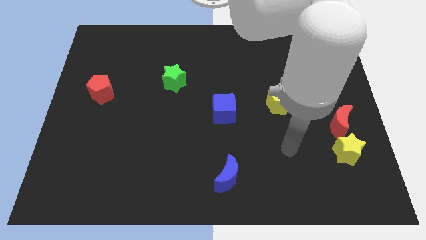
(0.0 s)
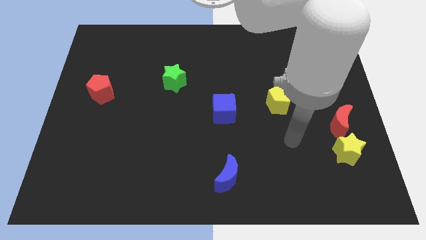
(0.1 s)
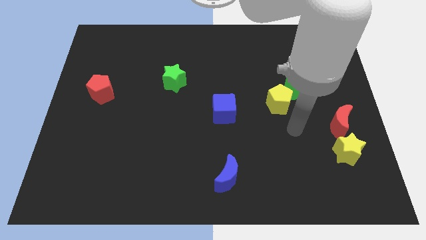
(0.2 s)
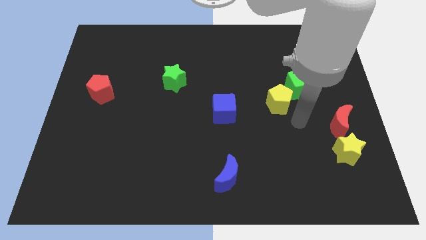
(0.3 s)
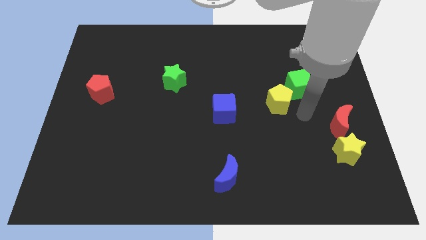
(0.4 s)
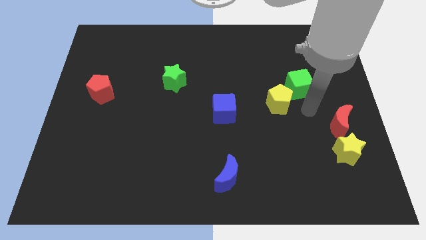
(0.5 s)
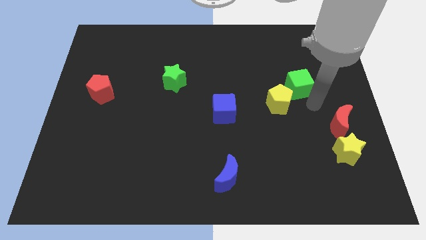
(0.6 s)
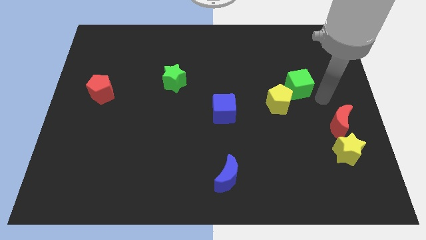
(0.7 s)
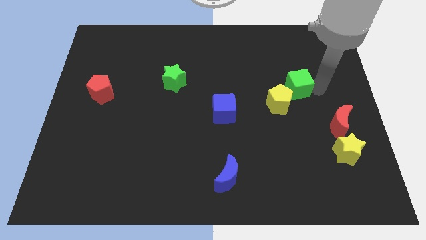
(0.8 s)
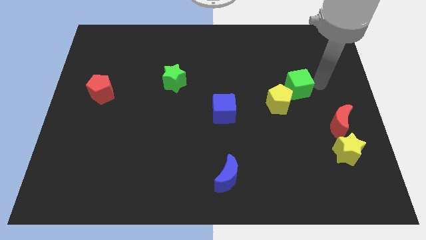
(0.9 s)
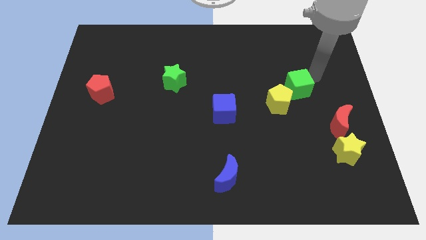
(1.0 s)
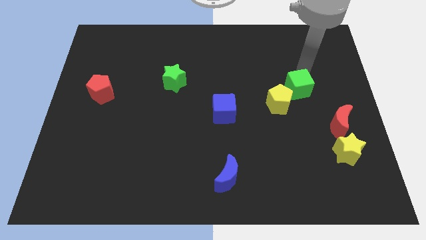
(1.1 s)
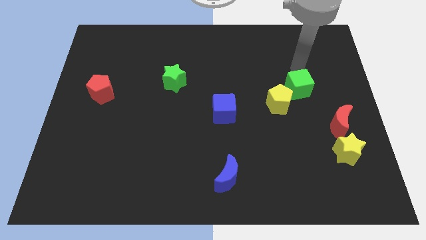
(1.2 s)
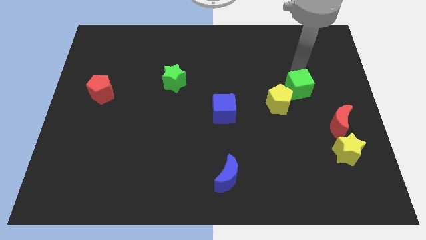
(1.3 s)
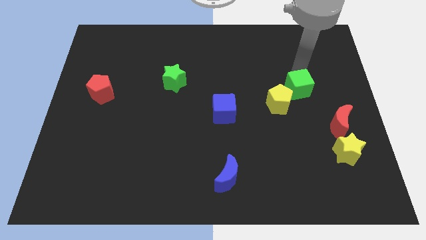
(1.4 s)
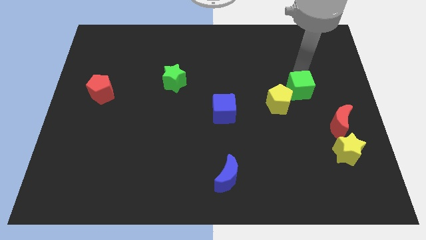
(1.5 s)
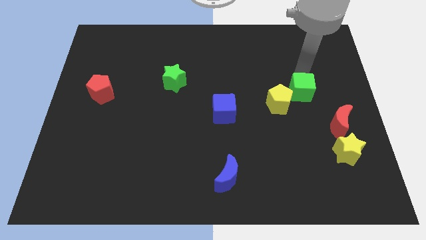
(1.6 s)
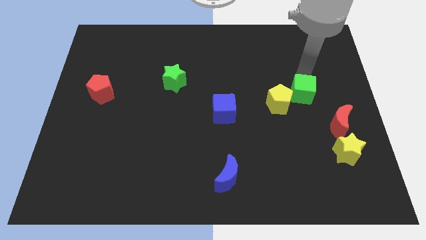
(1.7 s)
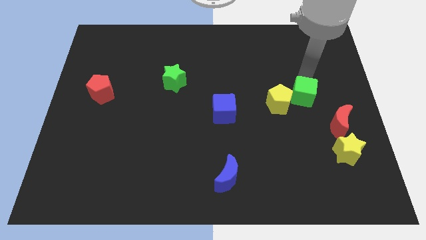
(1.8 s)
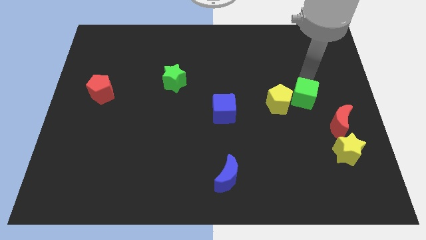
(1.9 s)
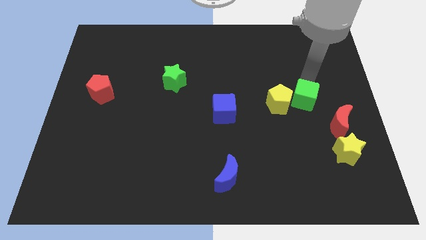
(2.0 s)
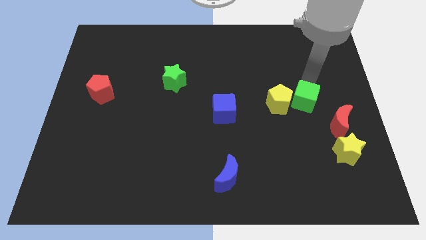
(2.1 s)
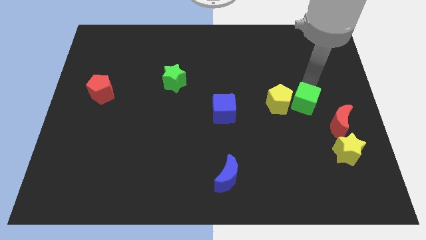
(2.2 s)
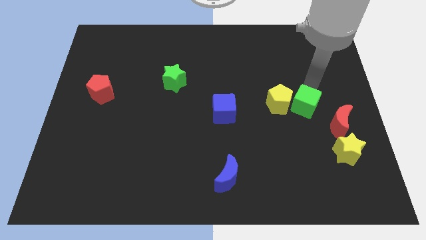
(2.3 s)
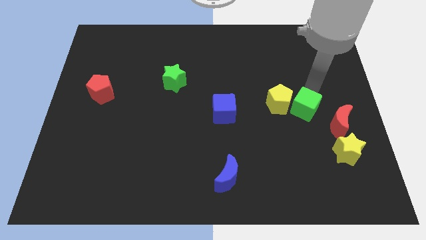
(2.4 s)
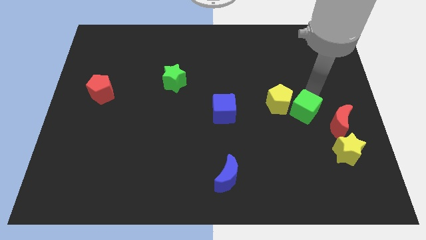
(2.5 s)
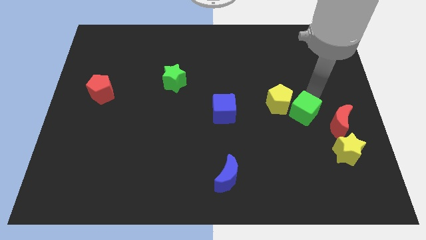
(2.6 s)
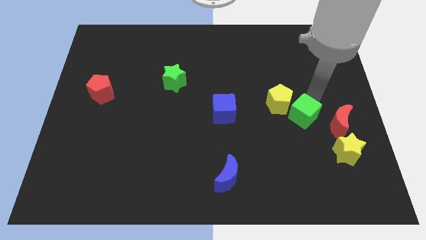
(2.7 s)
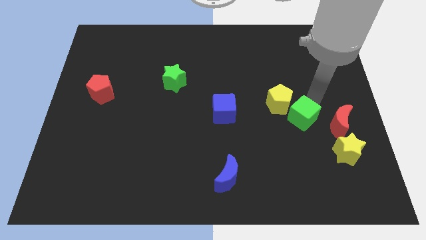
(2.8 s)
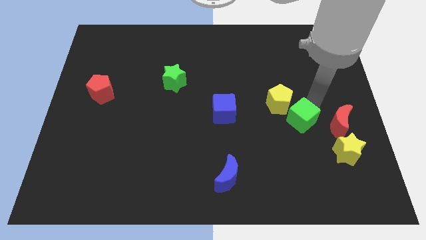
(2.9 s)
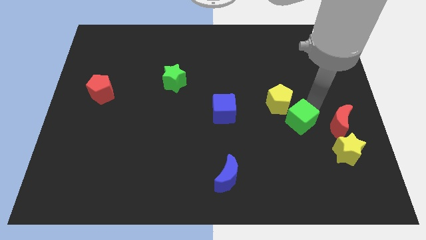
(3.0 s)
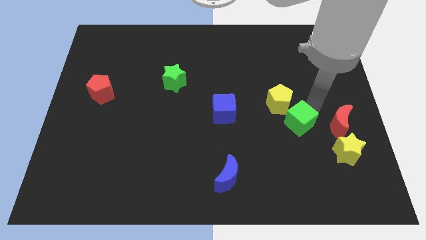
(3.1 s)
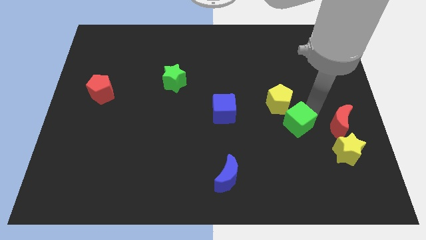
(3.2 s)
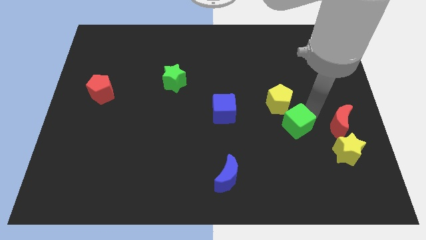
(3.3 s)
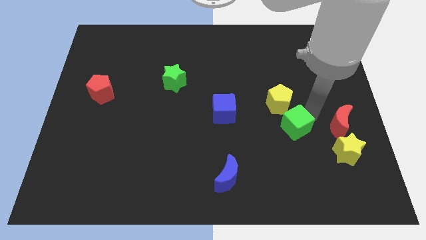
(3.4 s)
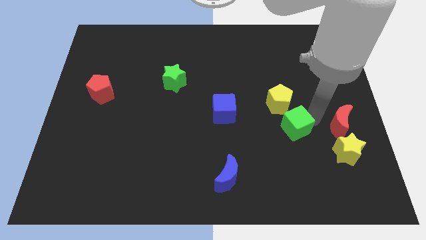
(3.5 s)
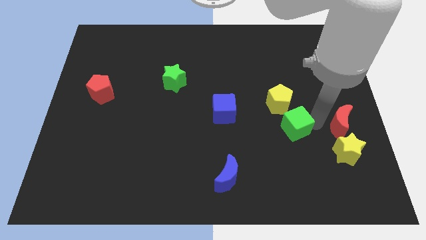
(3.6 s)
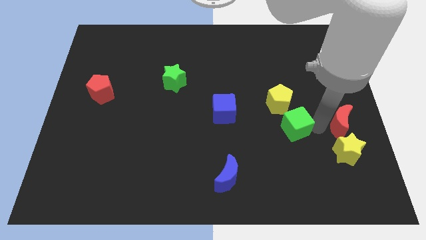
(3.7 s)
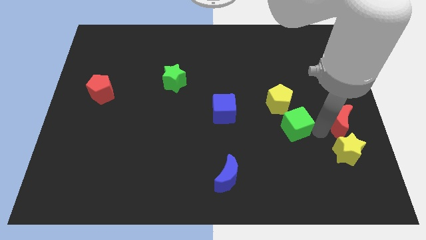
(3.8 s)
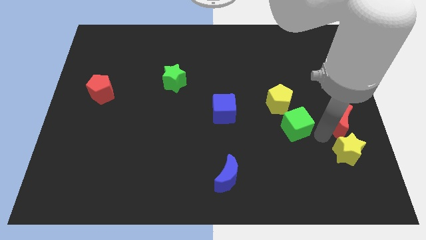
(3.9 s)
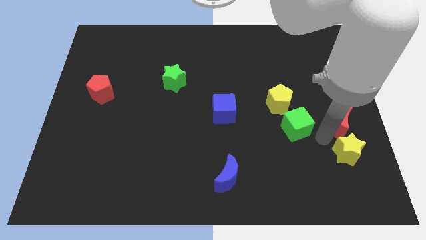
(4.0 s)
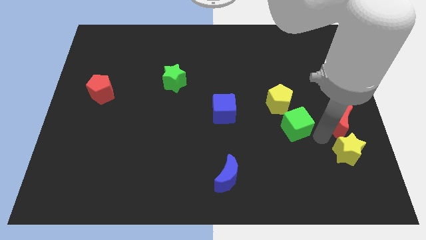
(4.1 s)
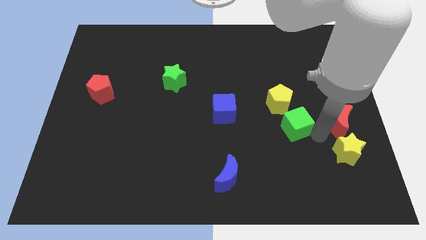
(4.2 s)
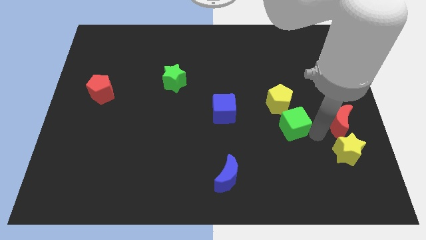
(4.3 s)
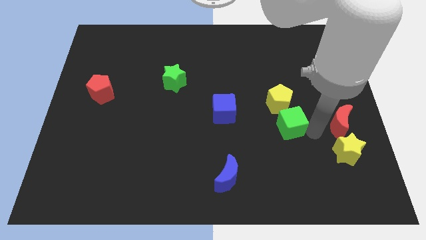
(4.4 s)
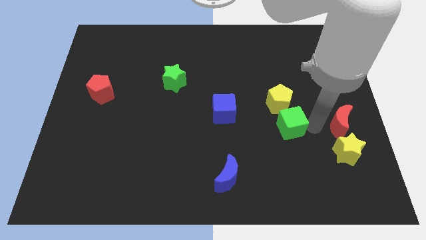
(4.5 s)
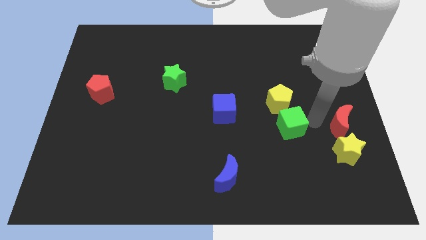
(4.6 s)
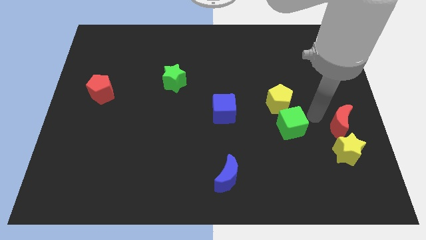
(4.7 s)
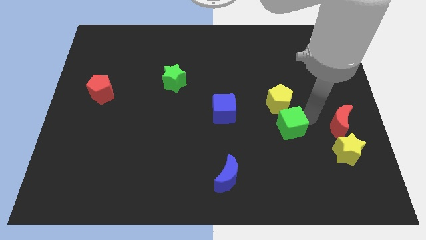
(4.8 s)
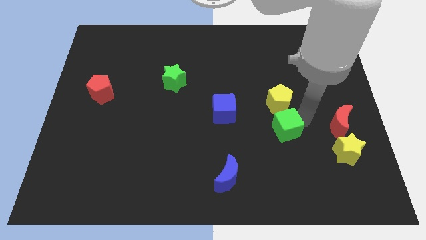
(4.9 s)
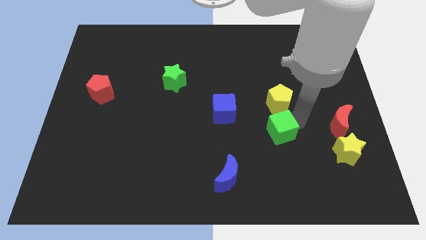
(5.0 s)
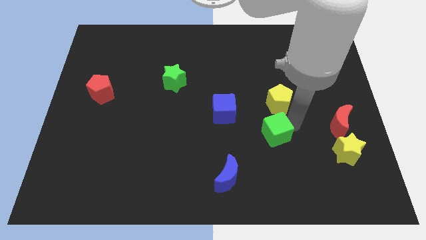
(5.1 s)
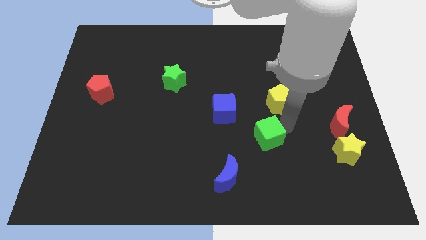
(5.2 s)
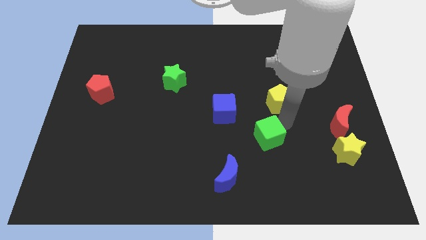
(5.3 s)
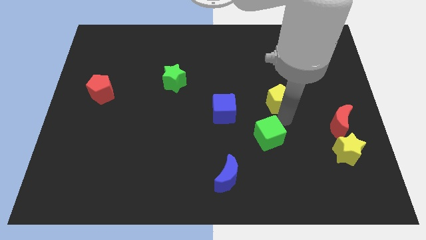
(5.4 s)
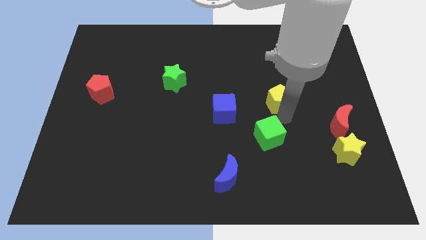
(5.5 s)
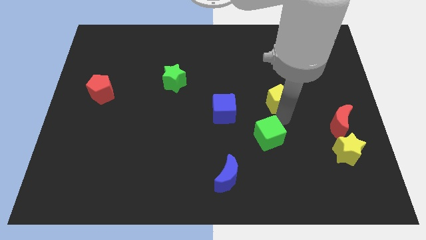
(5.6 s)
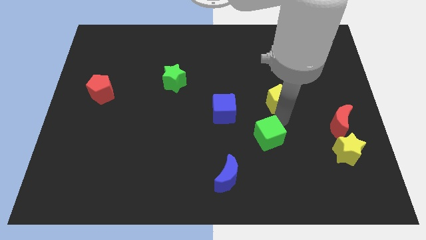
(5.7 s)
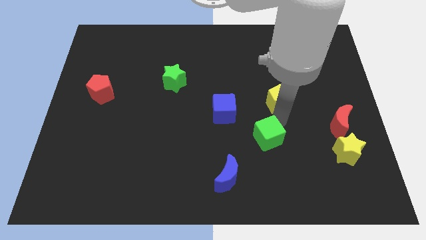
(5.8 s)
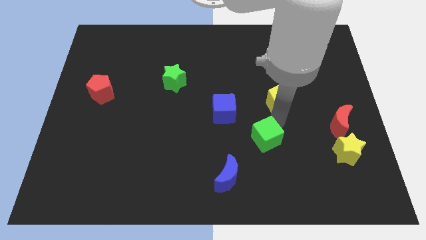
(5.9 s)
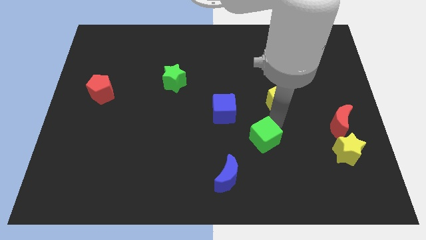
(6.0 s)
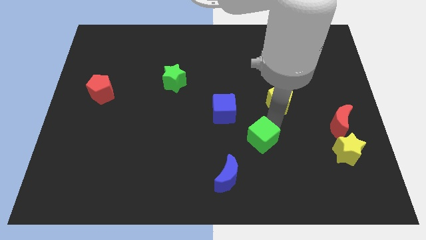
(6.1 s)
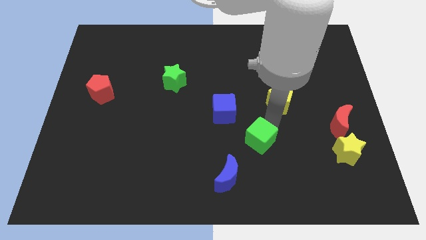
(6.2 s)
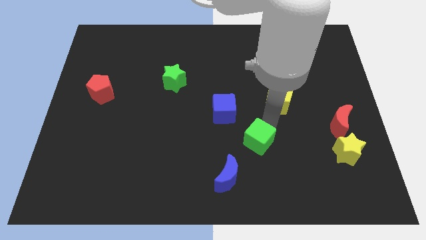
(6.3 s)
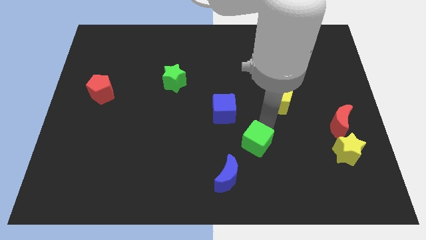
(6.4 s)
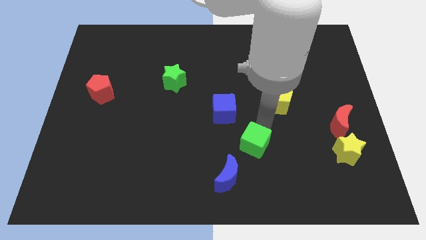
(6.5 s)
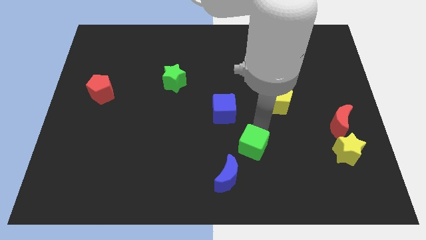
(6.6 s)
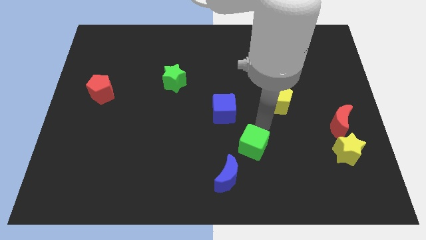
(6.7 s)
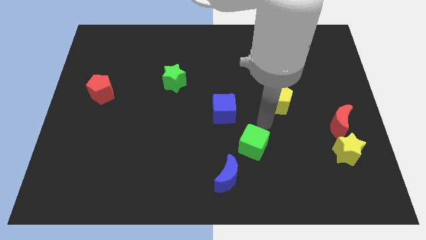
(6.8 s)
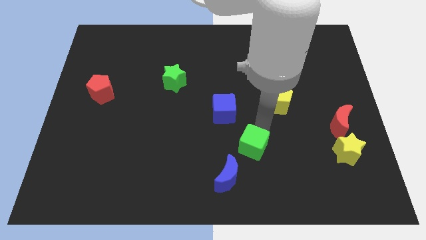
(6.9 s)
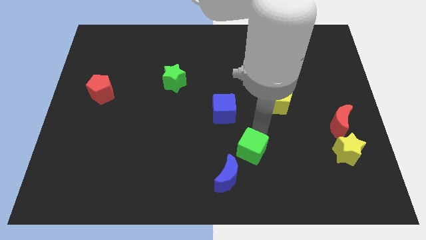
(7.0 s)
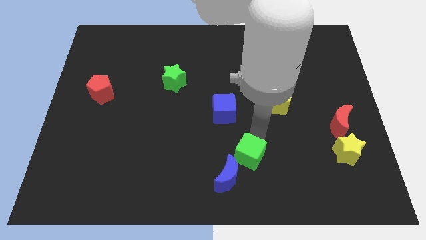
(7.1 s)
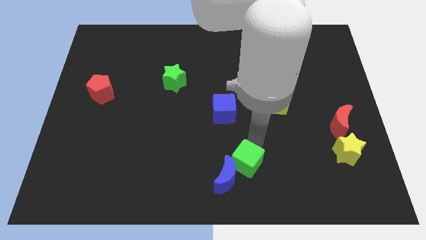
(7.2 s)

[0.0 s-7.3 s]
move the green cube next to the blue moon
